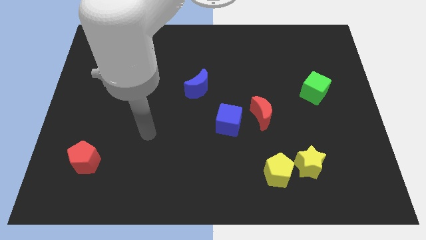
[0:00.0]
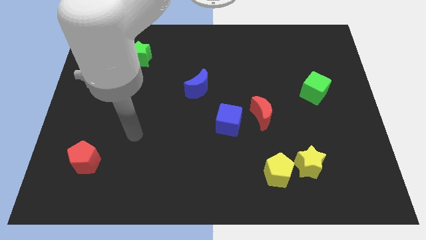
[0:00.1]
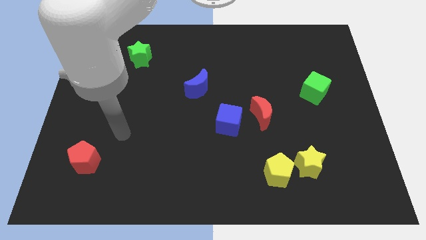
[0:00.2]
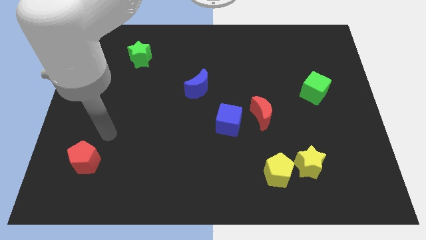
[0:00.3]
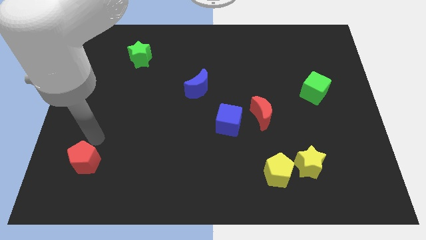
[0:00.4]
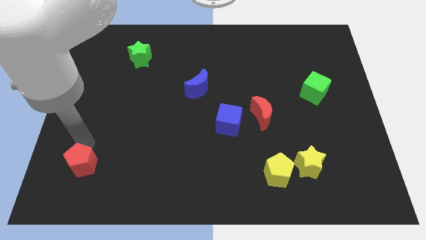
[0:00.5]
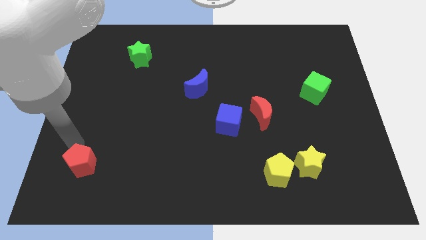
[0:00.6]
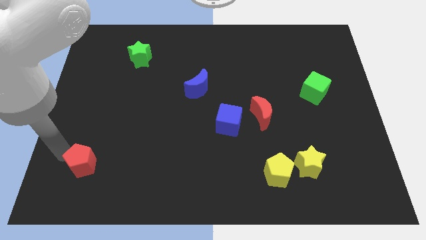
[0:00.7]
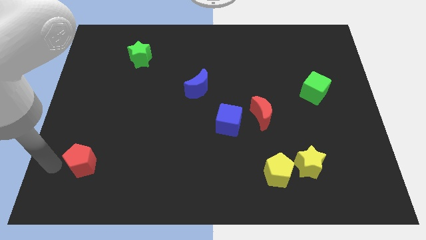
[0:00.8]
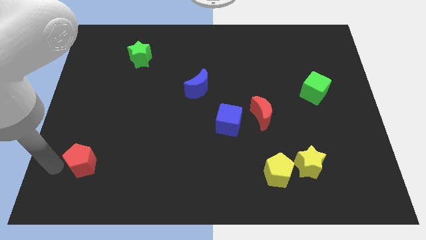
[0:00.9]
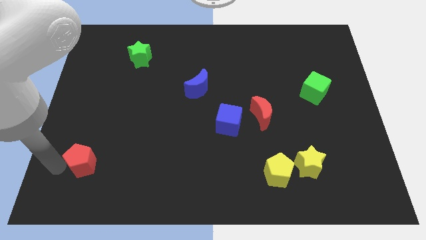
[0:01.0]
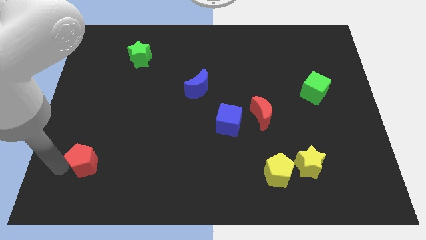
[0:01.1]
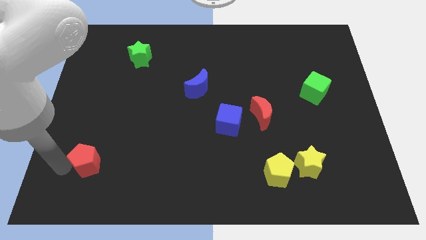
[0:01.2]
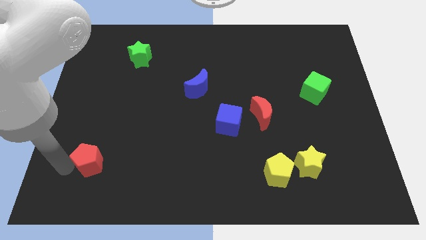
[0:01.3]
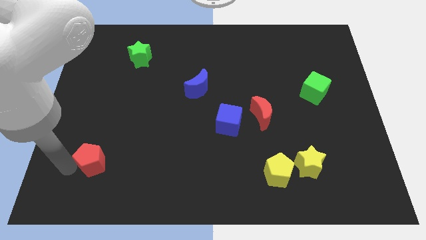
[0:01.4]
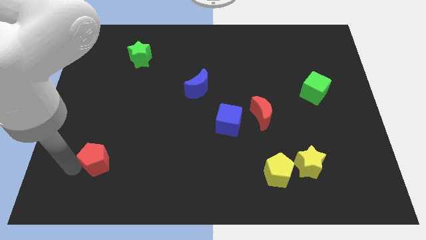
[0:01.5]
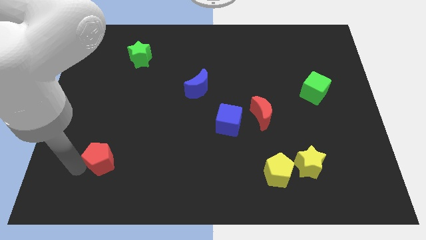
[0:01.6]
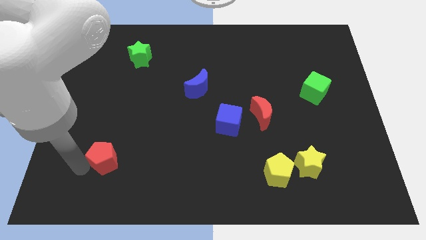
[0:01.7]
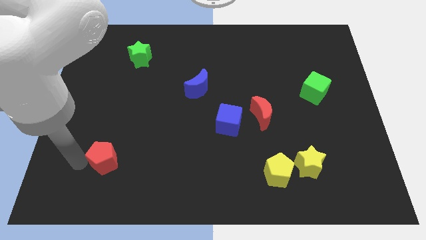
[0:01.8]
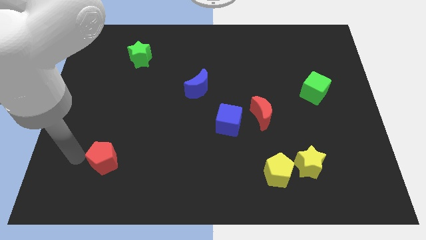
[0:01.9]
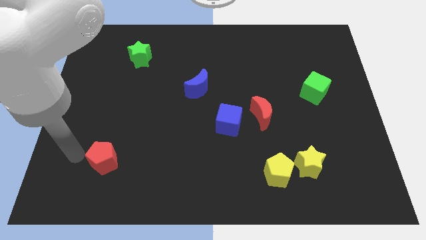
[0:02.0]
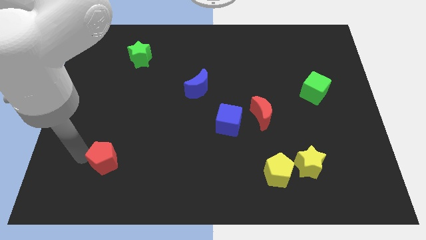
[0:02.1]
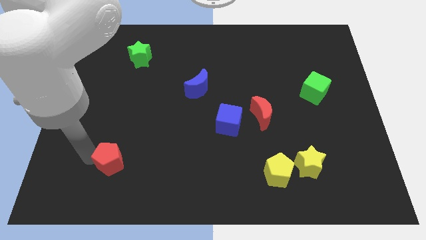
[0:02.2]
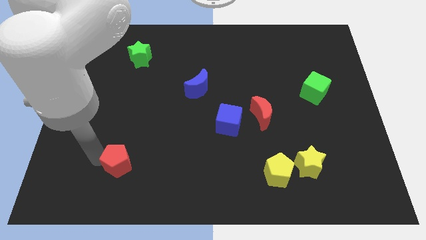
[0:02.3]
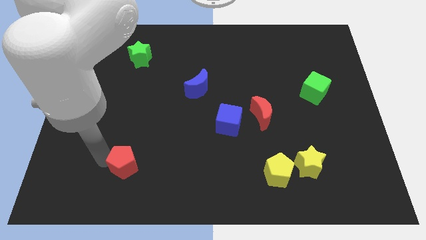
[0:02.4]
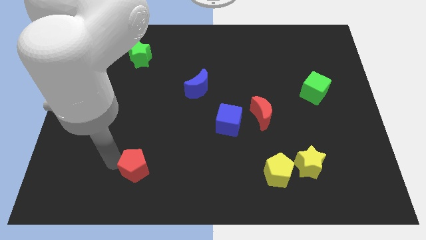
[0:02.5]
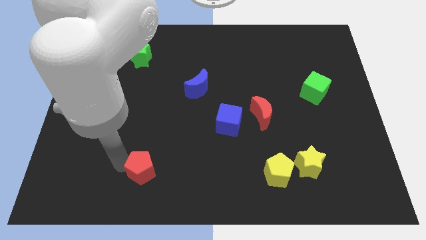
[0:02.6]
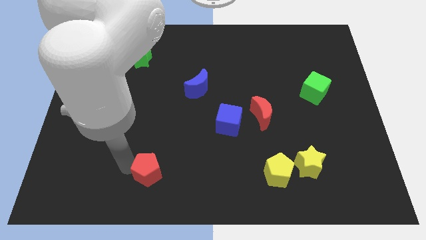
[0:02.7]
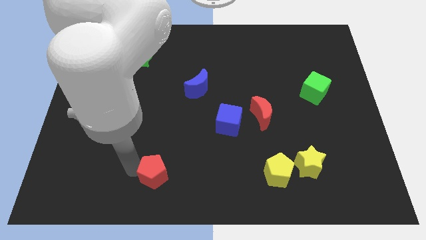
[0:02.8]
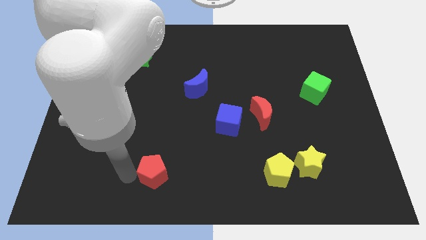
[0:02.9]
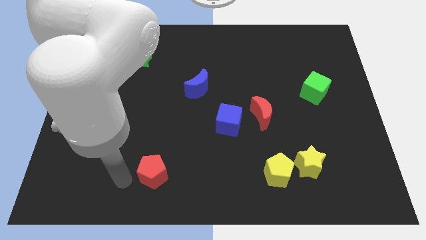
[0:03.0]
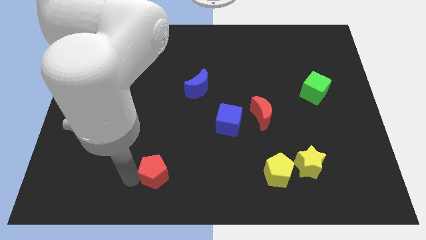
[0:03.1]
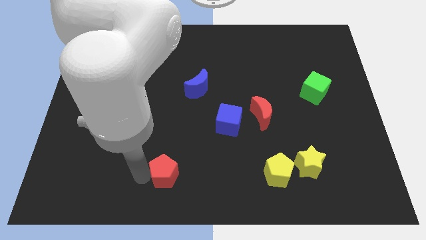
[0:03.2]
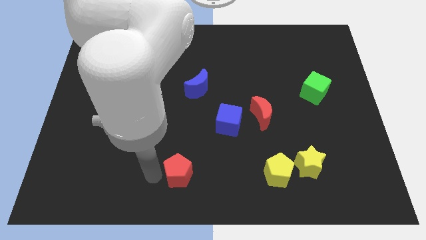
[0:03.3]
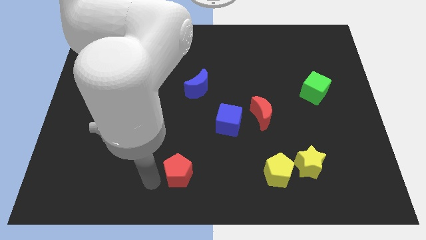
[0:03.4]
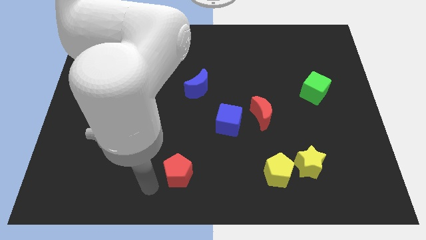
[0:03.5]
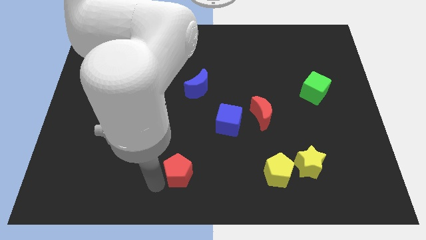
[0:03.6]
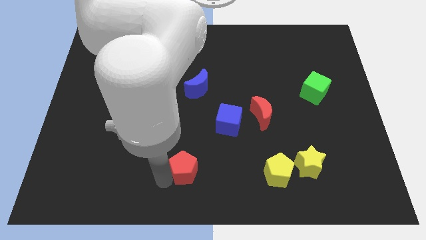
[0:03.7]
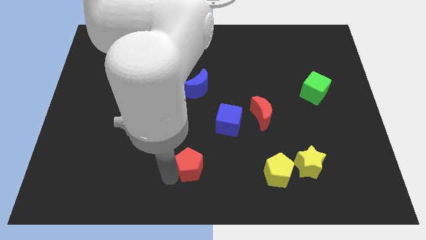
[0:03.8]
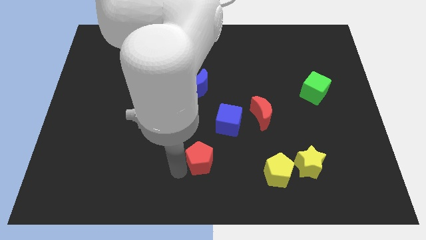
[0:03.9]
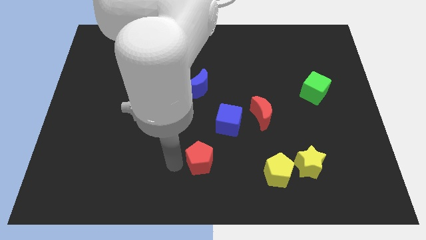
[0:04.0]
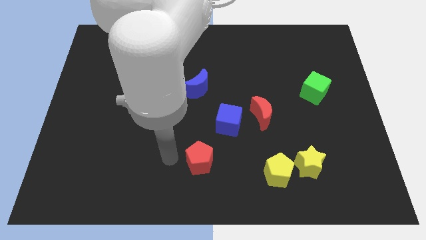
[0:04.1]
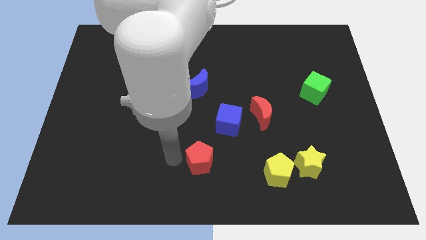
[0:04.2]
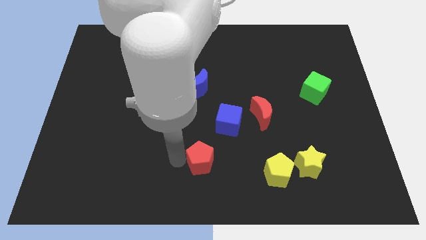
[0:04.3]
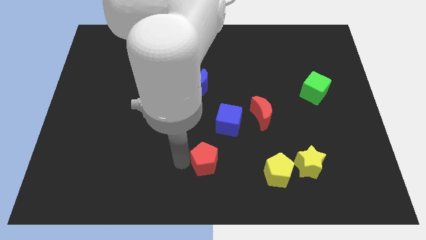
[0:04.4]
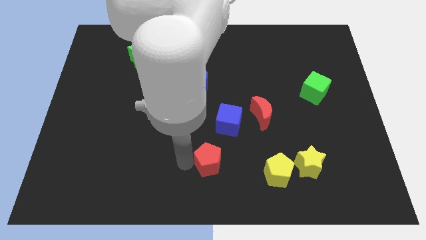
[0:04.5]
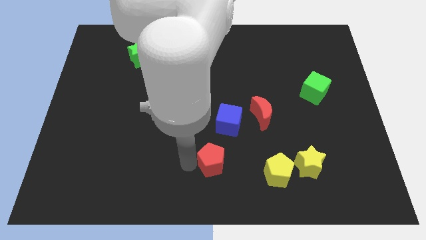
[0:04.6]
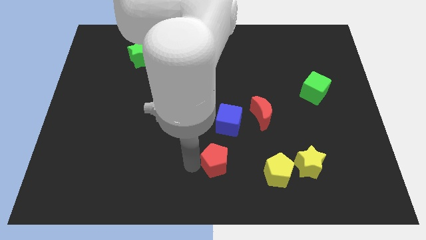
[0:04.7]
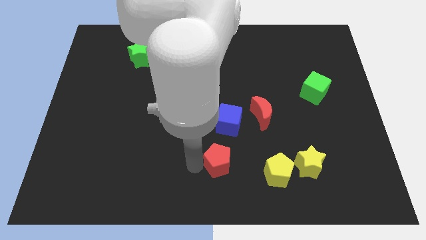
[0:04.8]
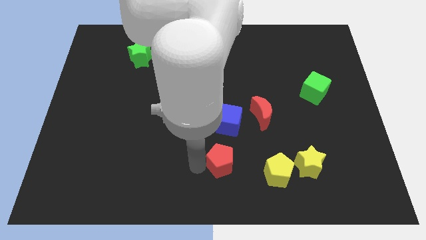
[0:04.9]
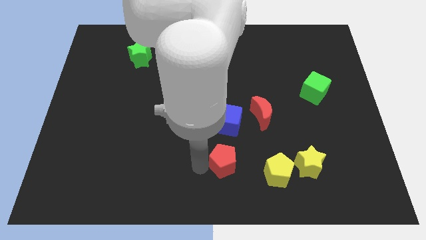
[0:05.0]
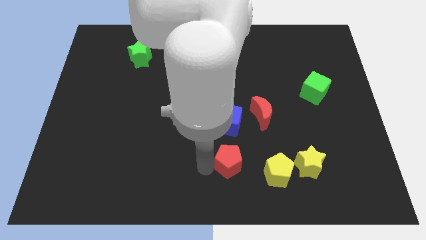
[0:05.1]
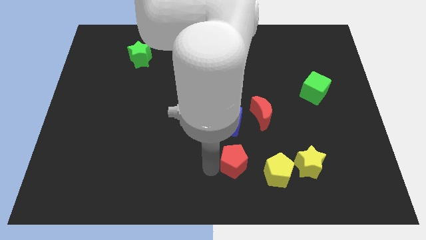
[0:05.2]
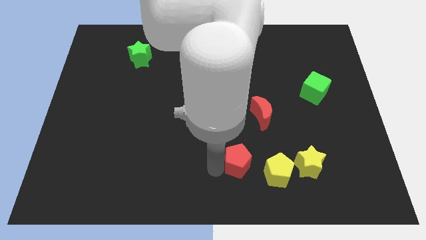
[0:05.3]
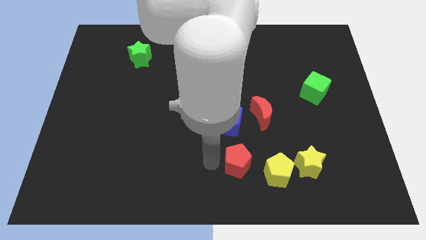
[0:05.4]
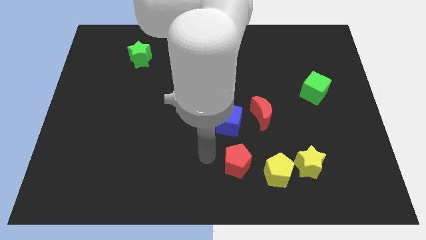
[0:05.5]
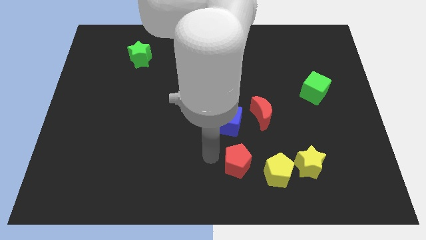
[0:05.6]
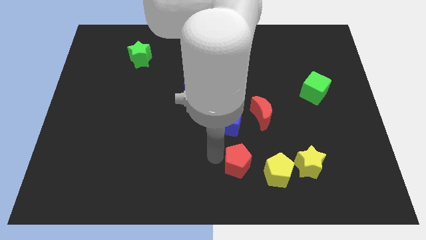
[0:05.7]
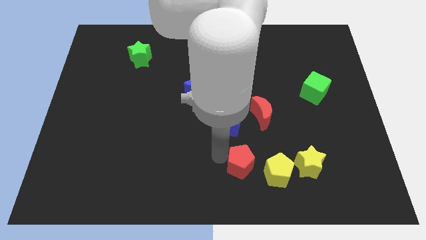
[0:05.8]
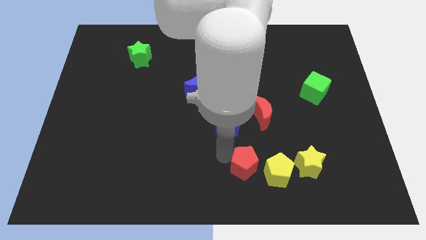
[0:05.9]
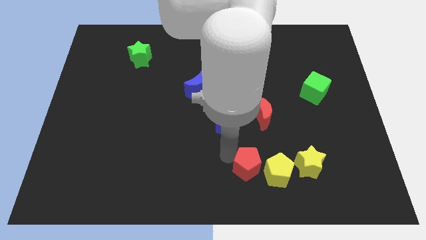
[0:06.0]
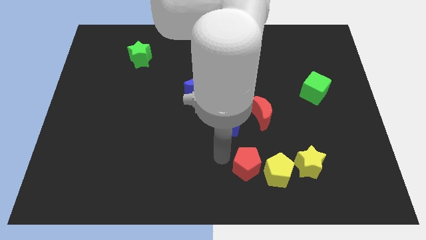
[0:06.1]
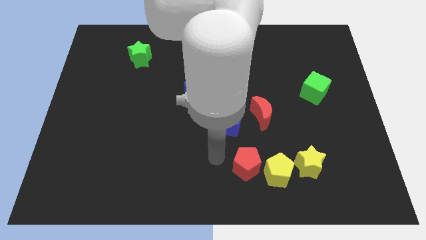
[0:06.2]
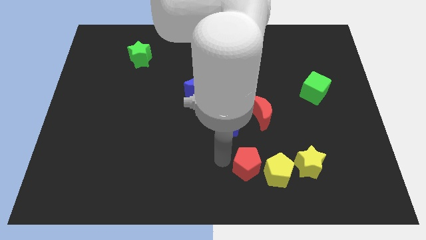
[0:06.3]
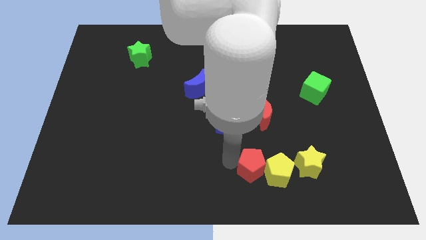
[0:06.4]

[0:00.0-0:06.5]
push the red pentagon close to the yellow pentagon
